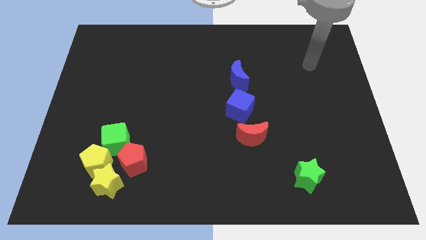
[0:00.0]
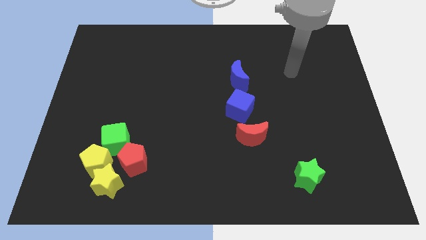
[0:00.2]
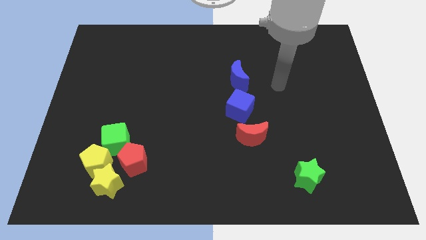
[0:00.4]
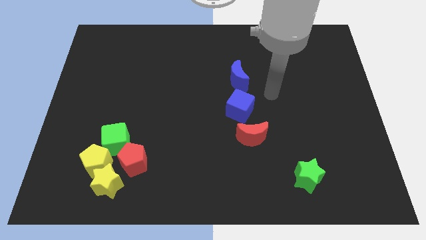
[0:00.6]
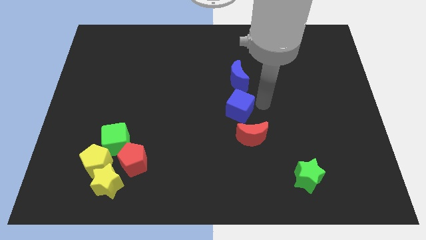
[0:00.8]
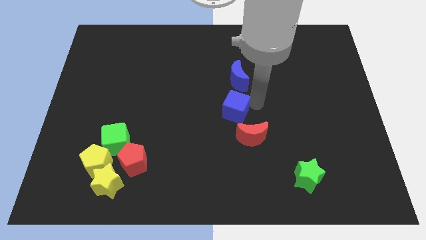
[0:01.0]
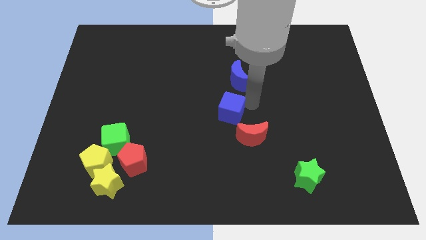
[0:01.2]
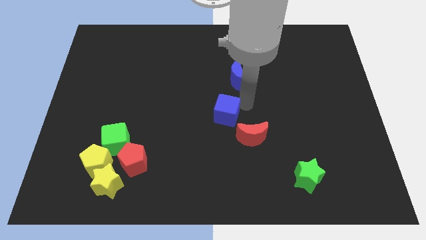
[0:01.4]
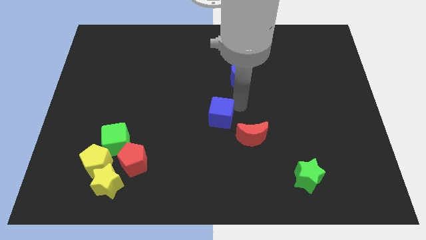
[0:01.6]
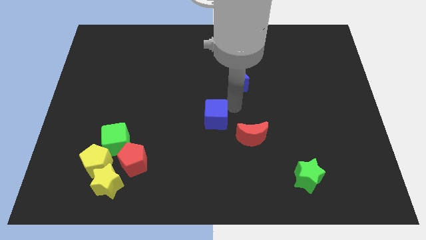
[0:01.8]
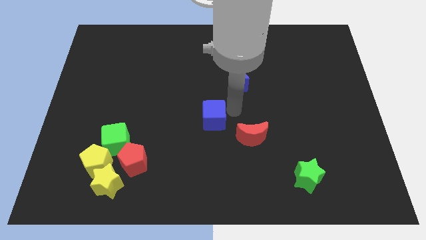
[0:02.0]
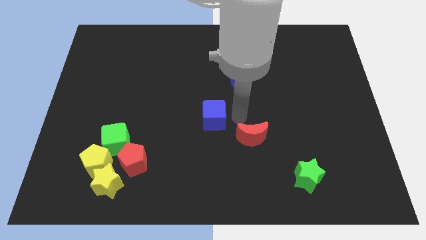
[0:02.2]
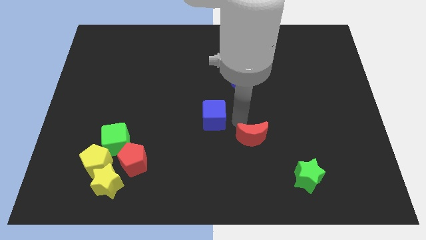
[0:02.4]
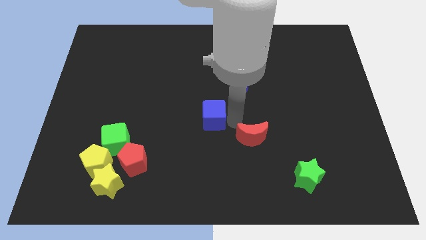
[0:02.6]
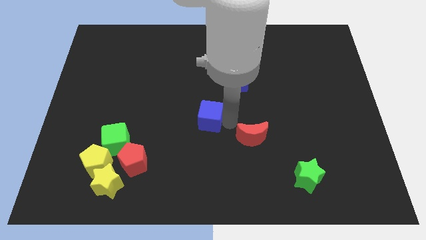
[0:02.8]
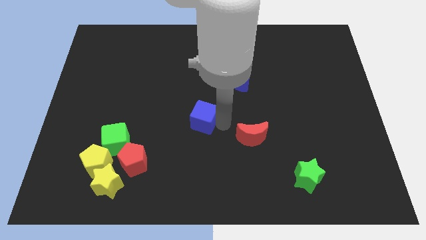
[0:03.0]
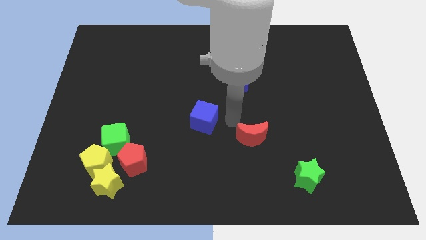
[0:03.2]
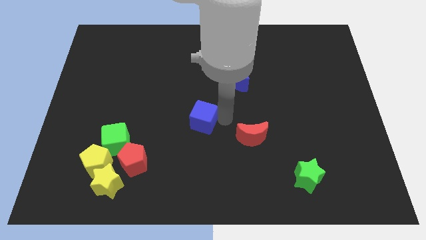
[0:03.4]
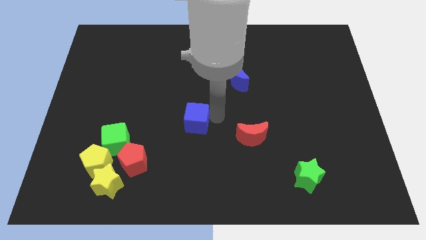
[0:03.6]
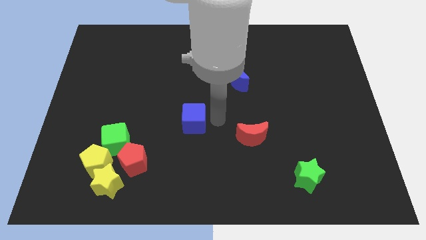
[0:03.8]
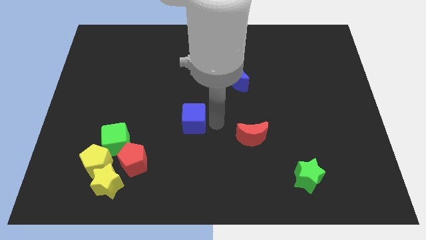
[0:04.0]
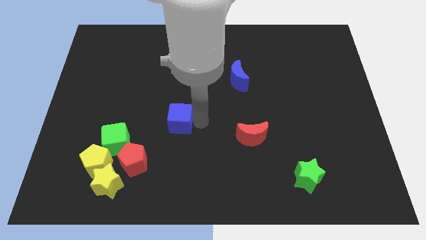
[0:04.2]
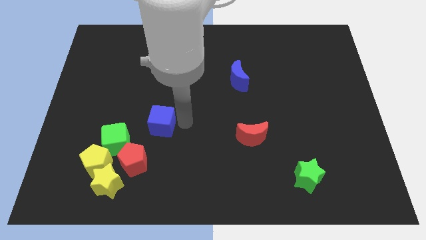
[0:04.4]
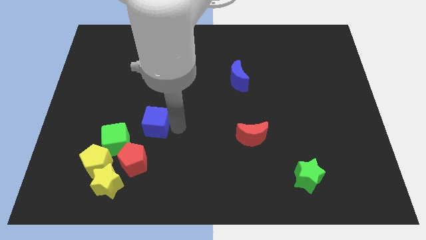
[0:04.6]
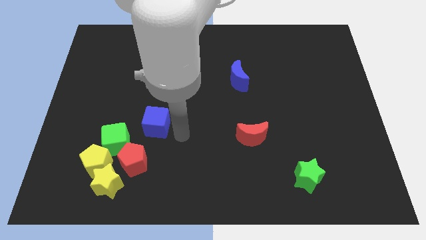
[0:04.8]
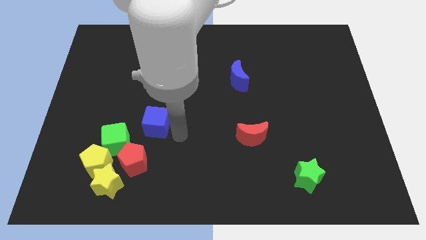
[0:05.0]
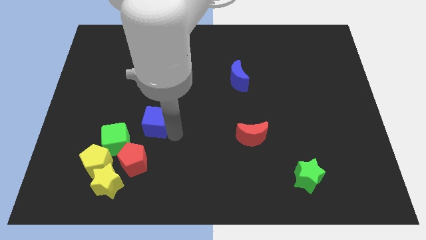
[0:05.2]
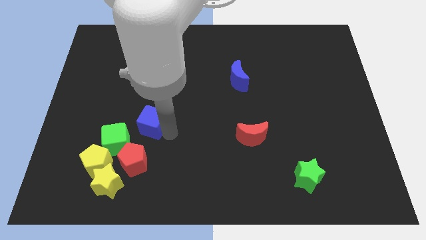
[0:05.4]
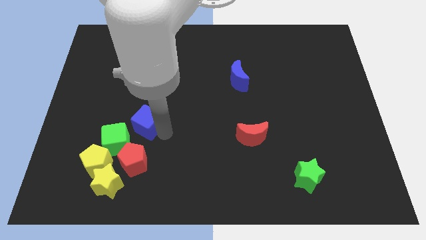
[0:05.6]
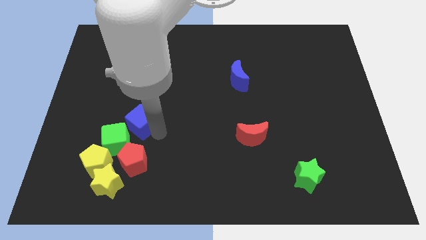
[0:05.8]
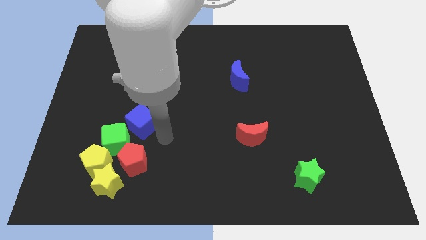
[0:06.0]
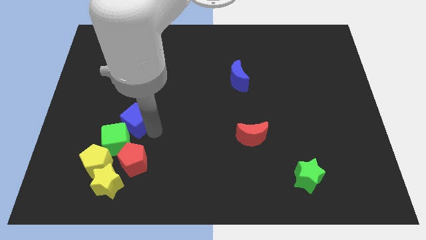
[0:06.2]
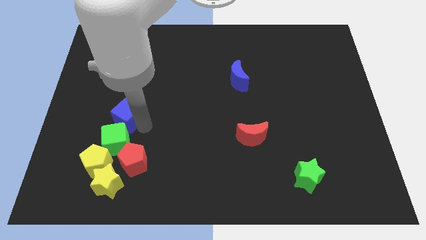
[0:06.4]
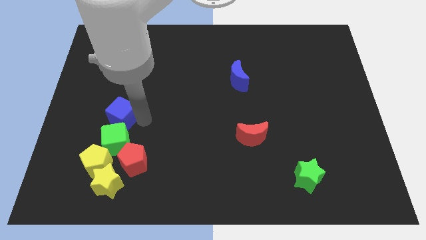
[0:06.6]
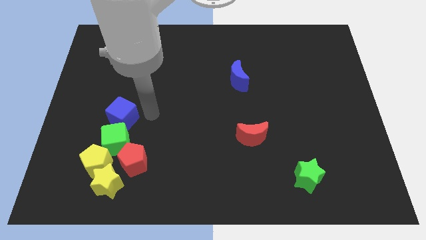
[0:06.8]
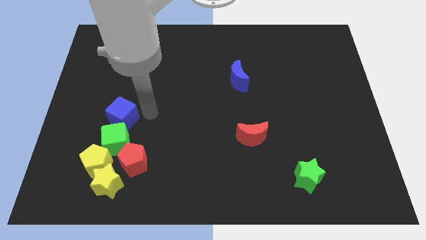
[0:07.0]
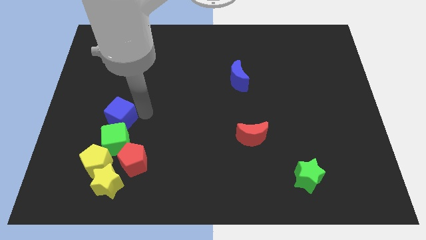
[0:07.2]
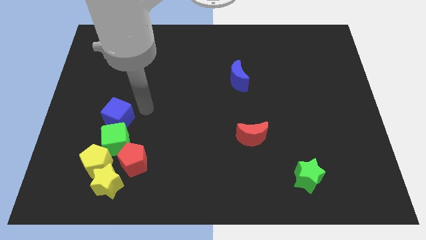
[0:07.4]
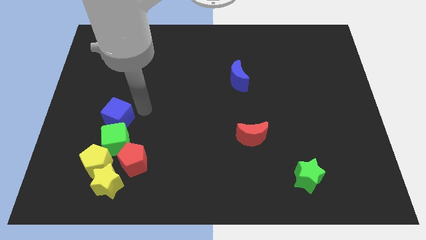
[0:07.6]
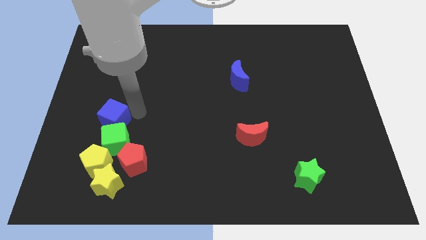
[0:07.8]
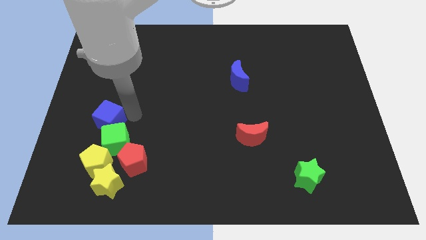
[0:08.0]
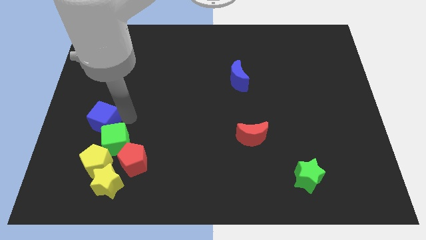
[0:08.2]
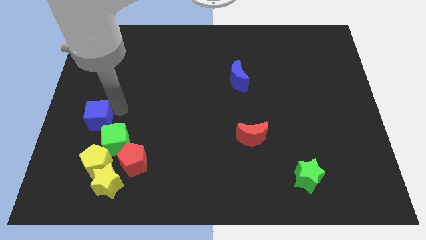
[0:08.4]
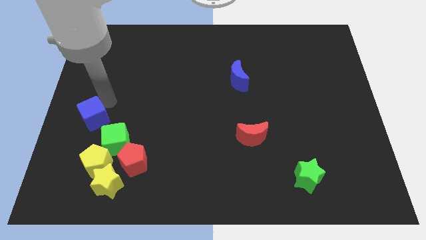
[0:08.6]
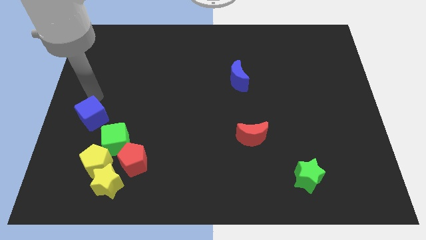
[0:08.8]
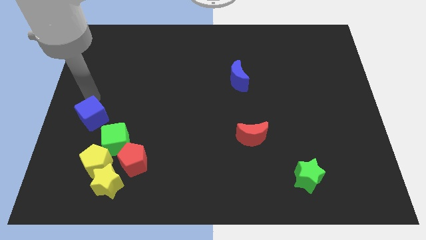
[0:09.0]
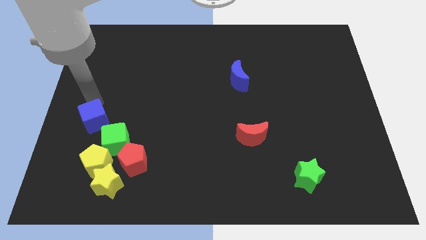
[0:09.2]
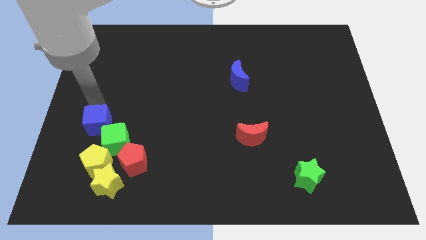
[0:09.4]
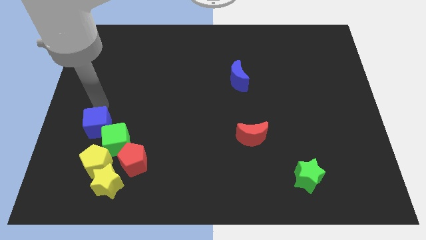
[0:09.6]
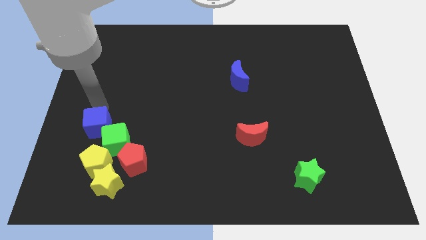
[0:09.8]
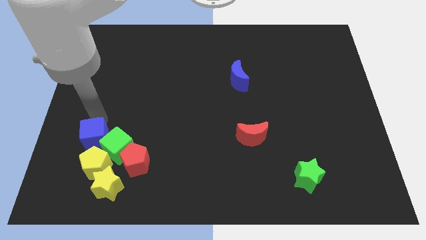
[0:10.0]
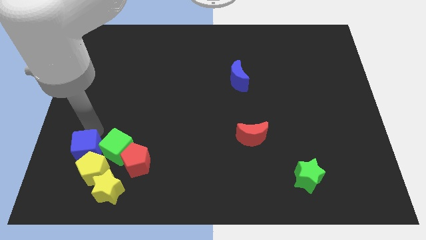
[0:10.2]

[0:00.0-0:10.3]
slide the blue cube towards the yellow pentagon

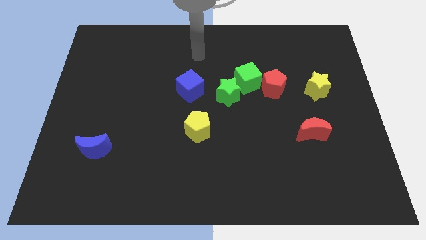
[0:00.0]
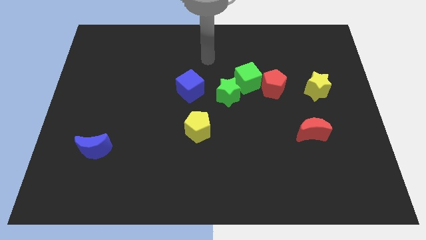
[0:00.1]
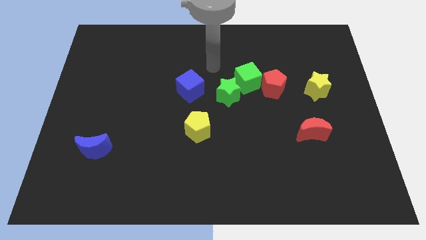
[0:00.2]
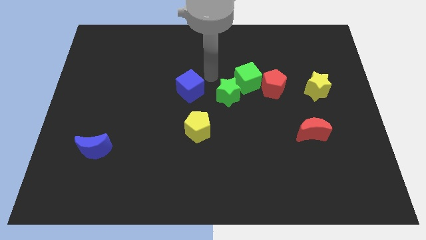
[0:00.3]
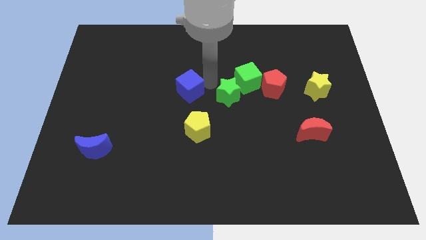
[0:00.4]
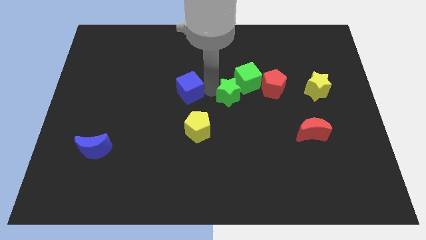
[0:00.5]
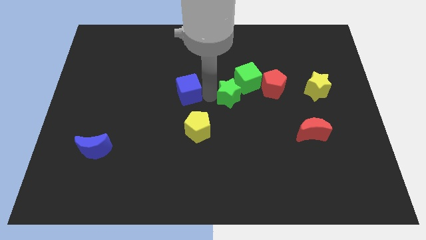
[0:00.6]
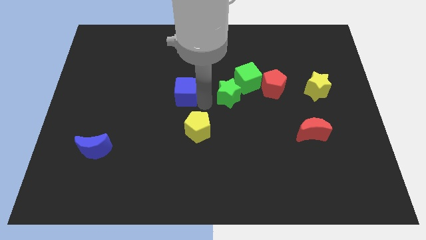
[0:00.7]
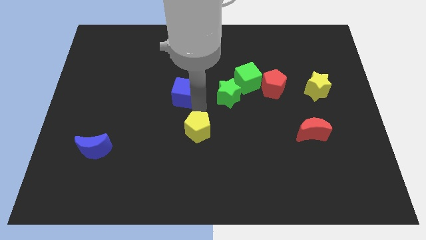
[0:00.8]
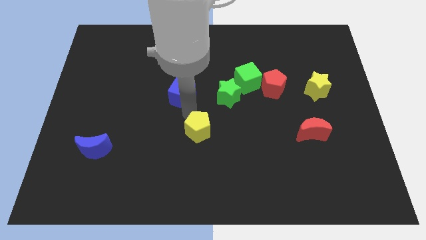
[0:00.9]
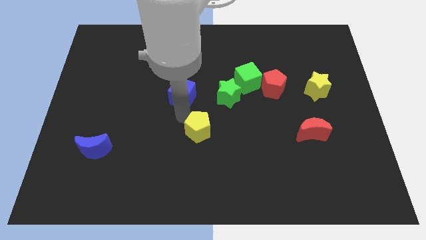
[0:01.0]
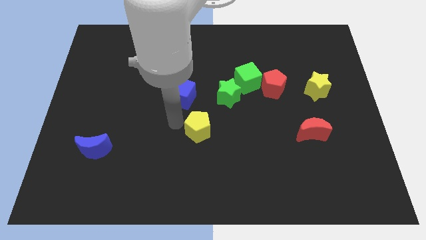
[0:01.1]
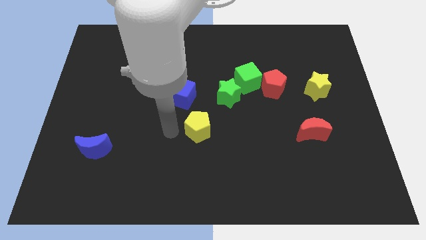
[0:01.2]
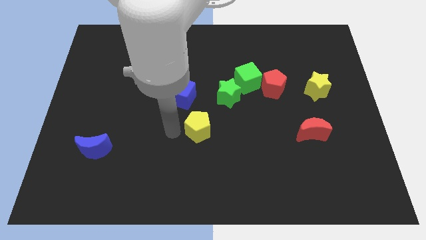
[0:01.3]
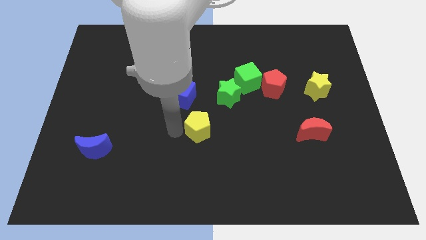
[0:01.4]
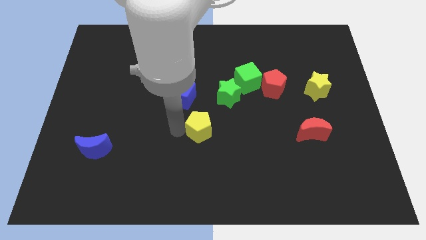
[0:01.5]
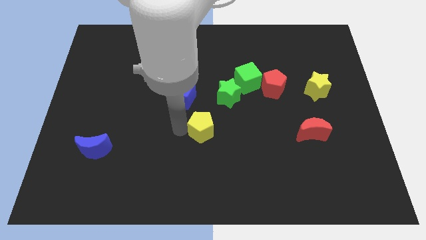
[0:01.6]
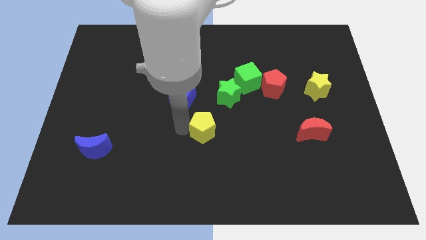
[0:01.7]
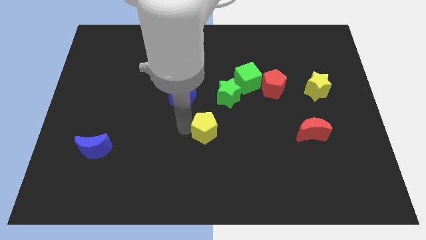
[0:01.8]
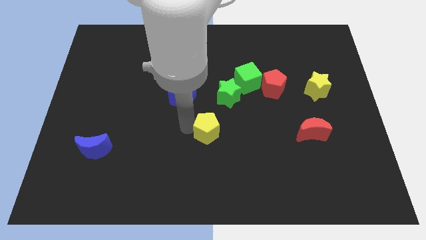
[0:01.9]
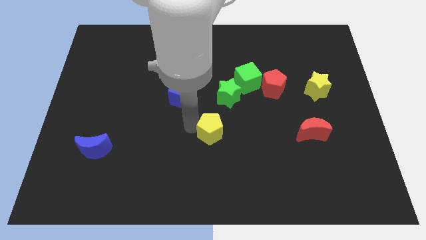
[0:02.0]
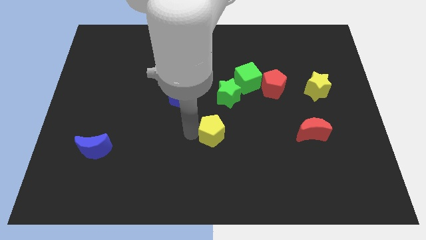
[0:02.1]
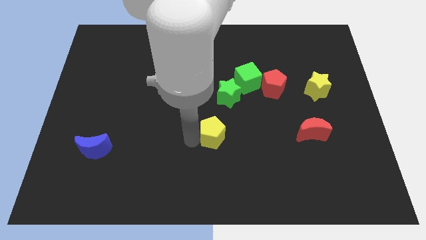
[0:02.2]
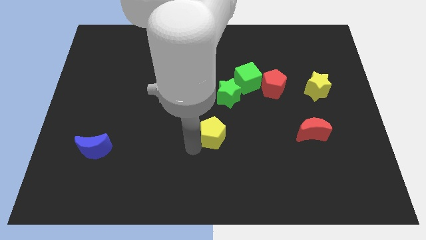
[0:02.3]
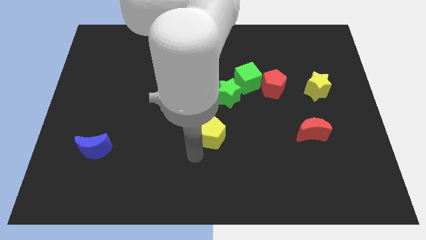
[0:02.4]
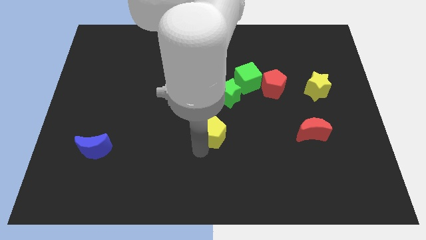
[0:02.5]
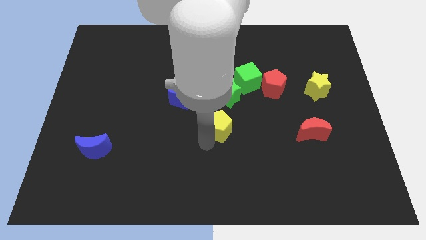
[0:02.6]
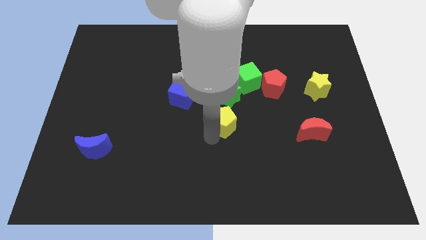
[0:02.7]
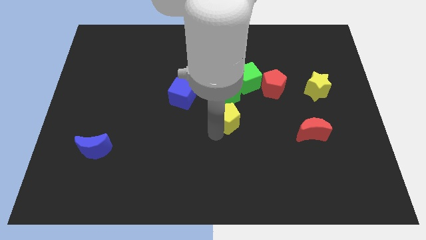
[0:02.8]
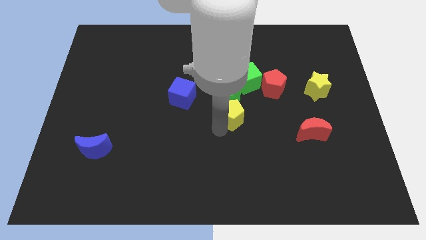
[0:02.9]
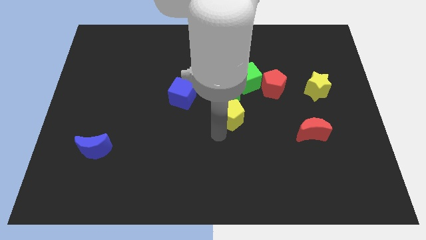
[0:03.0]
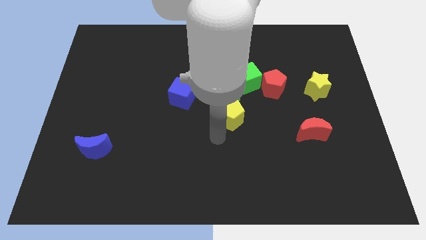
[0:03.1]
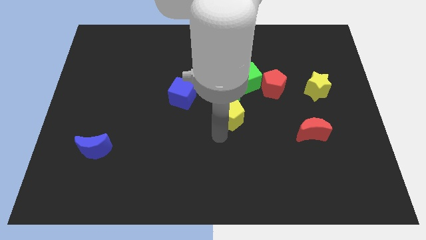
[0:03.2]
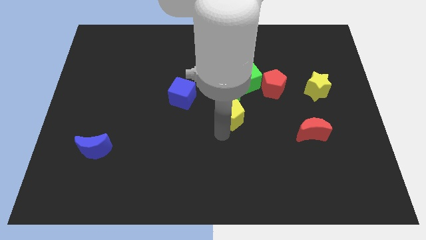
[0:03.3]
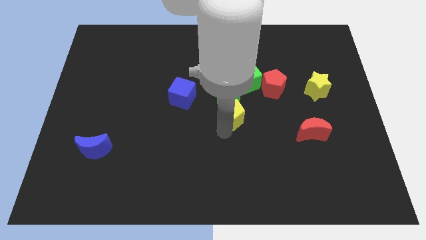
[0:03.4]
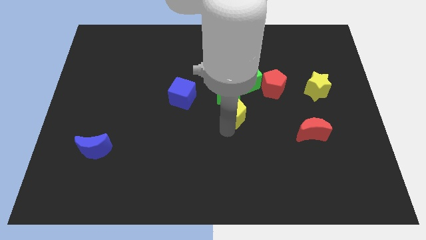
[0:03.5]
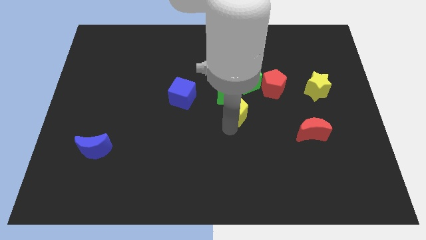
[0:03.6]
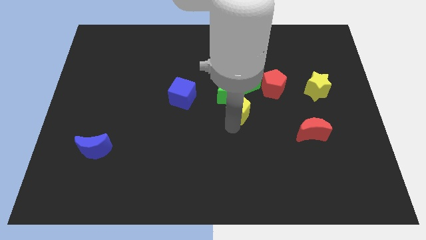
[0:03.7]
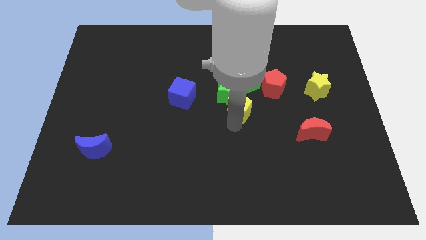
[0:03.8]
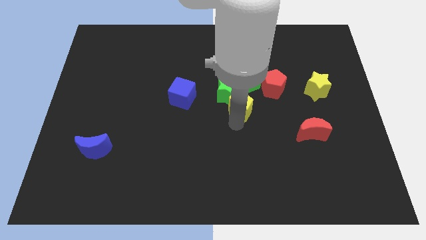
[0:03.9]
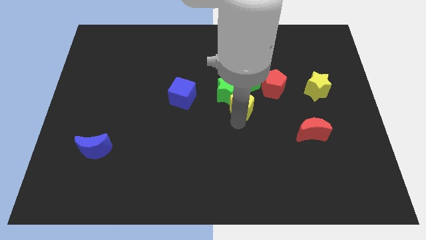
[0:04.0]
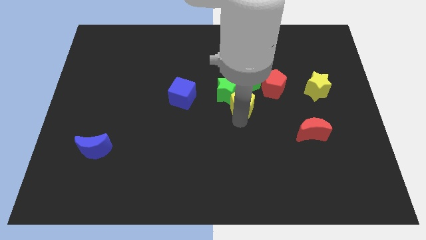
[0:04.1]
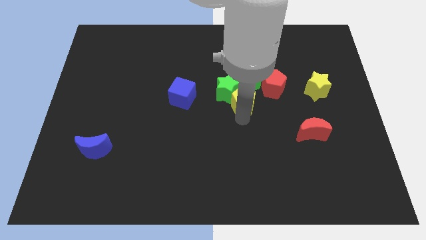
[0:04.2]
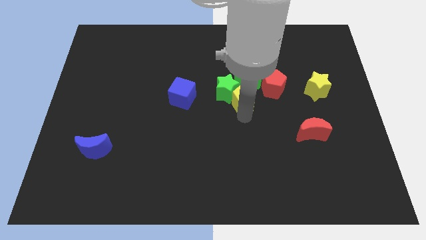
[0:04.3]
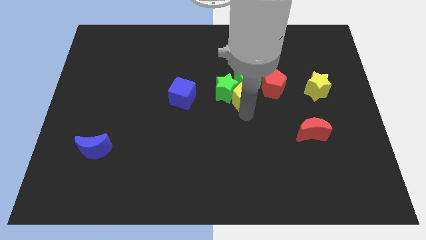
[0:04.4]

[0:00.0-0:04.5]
slide the yellow pentagon to the green cube
